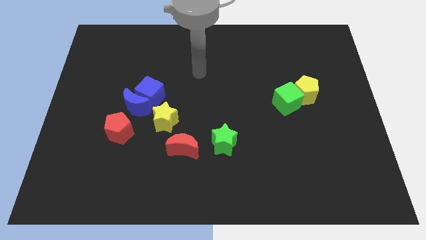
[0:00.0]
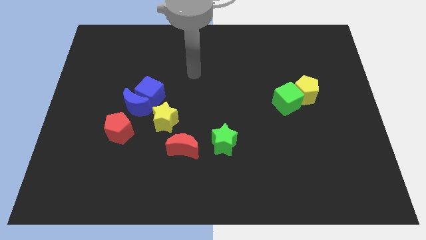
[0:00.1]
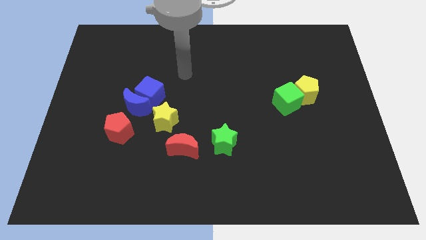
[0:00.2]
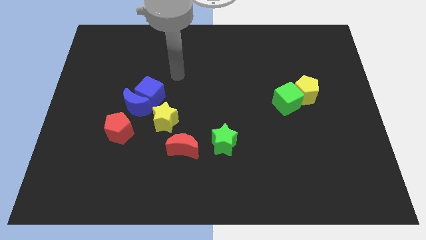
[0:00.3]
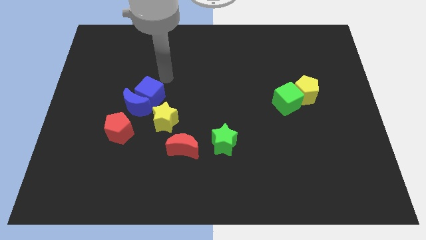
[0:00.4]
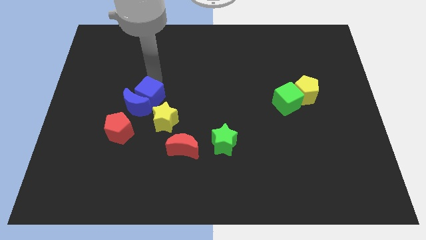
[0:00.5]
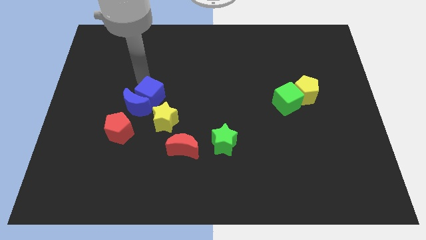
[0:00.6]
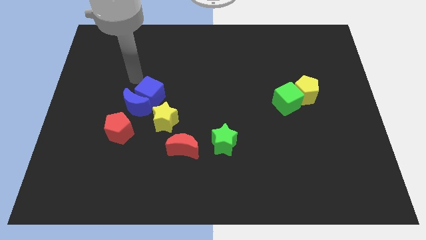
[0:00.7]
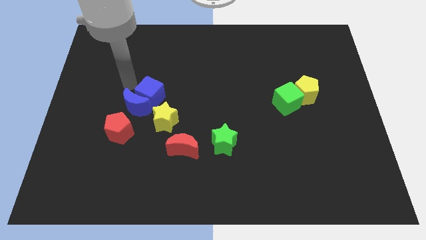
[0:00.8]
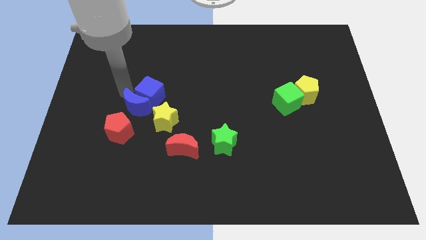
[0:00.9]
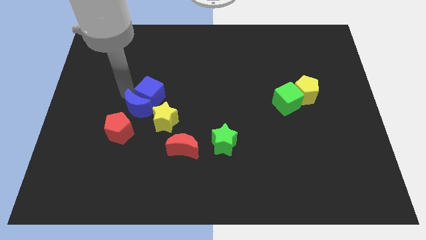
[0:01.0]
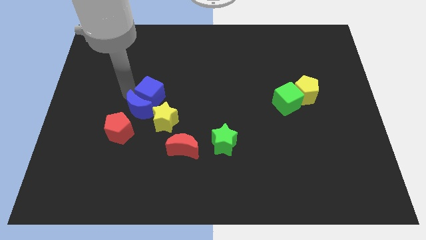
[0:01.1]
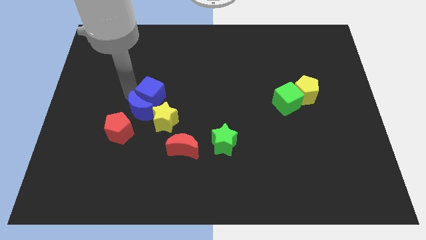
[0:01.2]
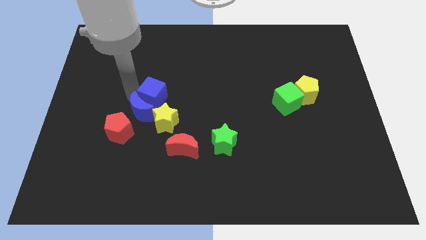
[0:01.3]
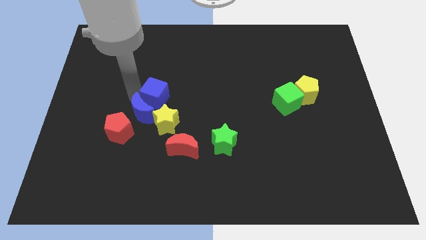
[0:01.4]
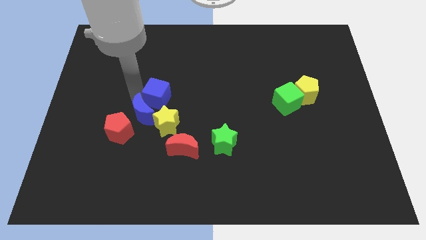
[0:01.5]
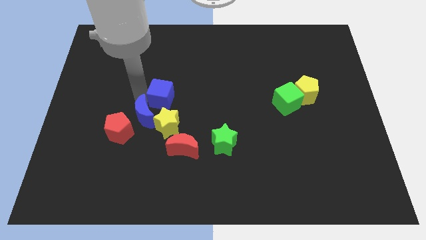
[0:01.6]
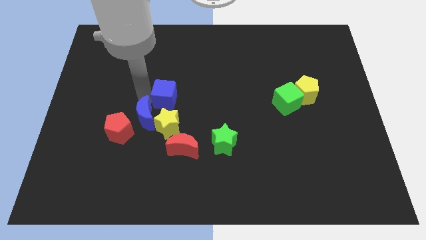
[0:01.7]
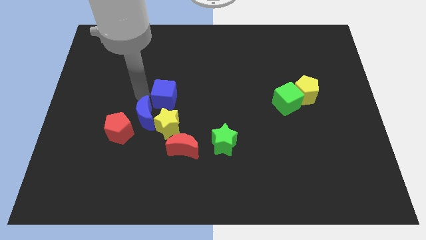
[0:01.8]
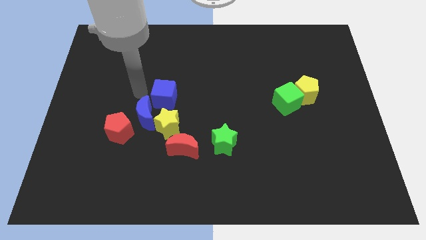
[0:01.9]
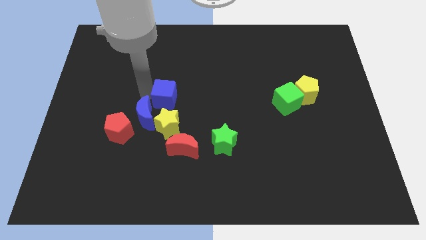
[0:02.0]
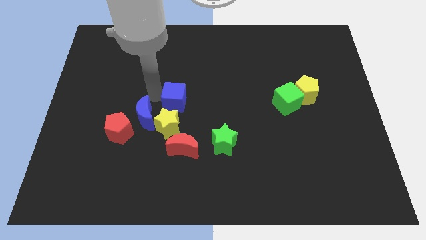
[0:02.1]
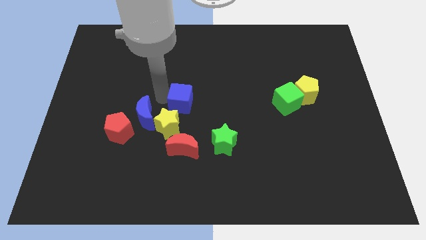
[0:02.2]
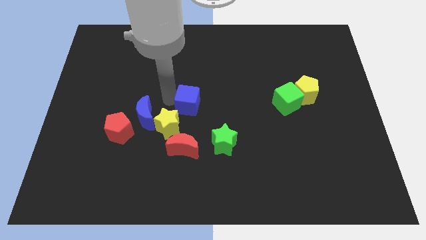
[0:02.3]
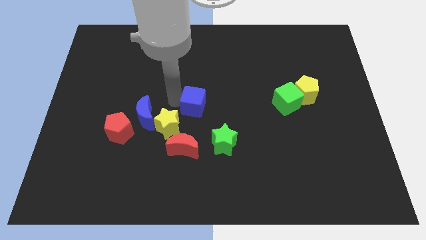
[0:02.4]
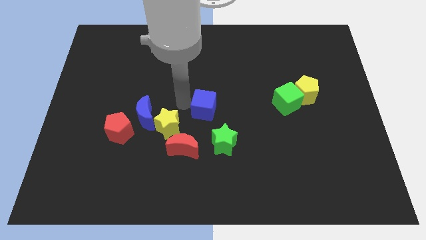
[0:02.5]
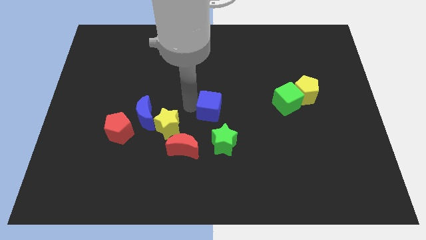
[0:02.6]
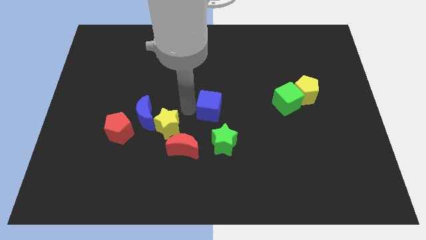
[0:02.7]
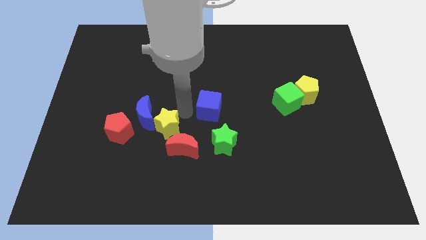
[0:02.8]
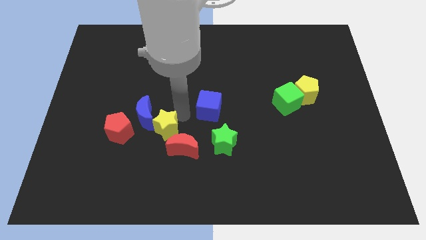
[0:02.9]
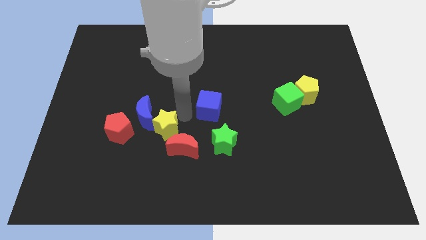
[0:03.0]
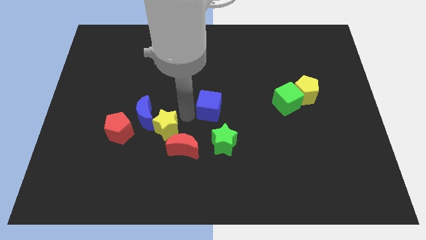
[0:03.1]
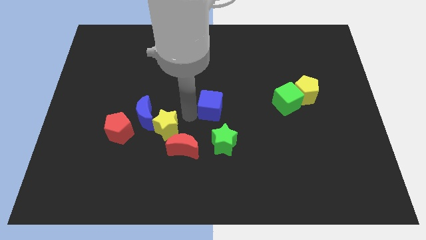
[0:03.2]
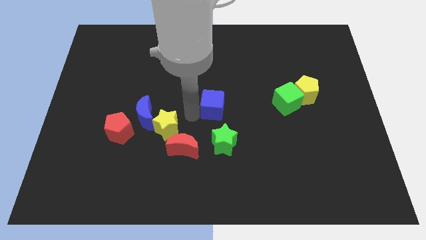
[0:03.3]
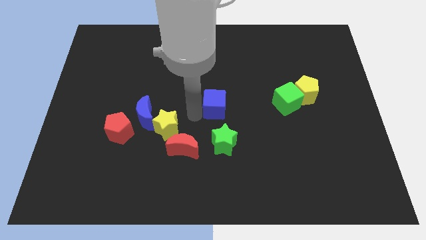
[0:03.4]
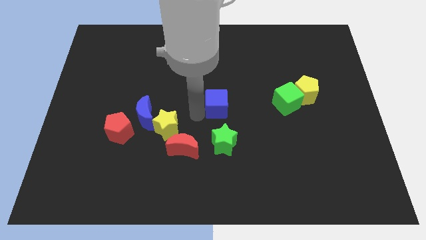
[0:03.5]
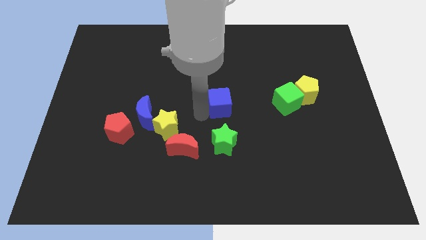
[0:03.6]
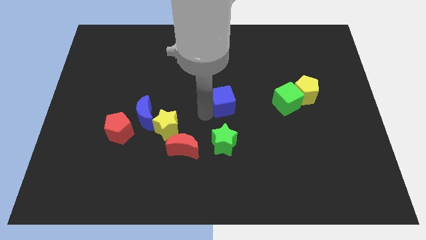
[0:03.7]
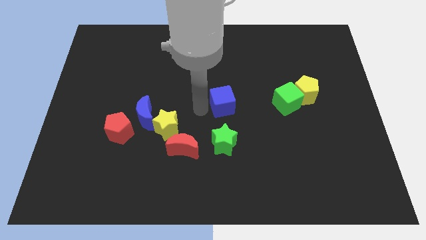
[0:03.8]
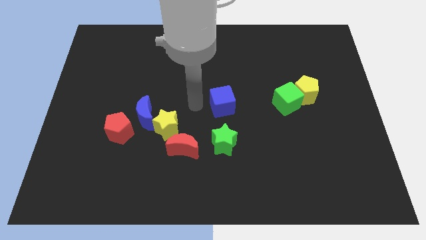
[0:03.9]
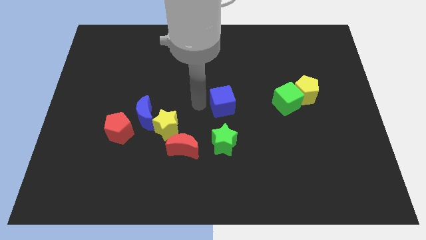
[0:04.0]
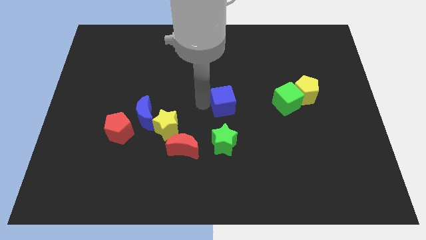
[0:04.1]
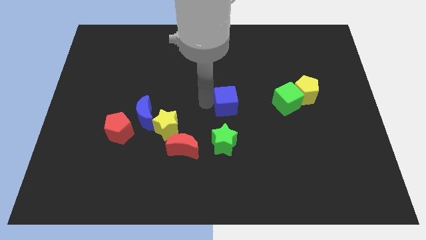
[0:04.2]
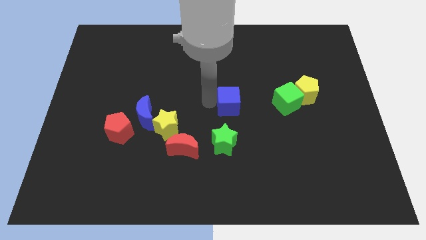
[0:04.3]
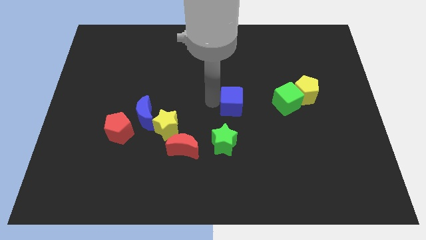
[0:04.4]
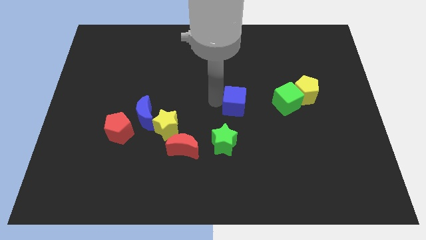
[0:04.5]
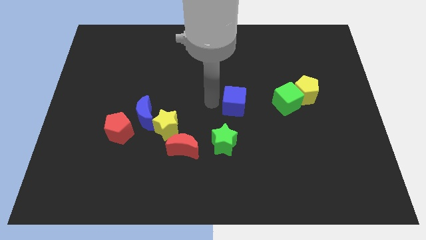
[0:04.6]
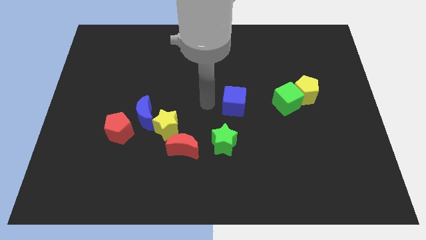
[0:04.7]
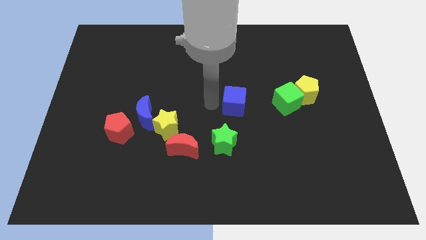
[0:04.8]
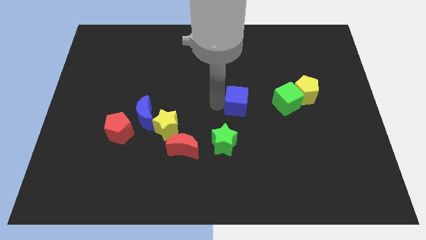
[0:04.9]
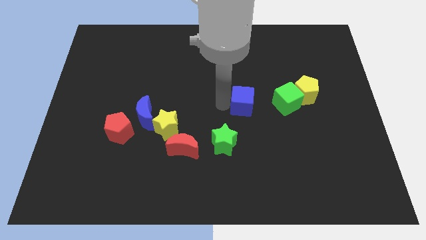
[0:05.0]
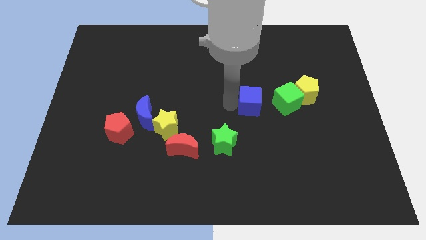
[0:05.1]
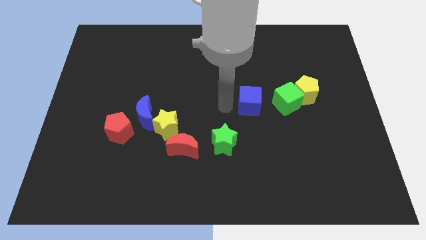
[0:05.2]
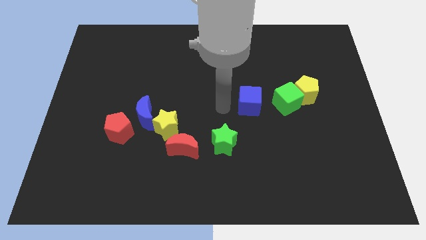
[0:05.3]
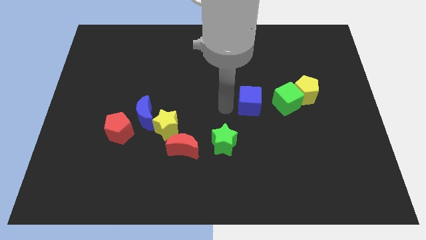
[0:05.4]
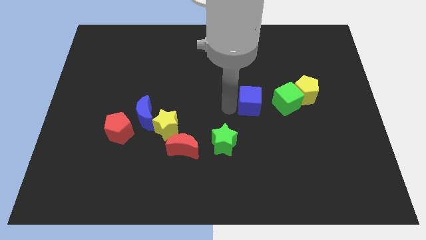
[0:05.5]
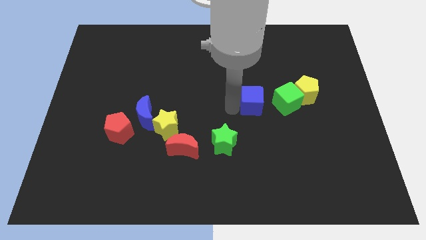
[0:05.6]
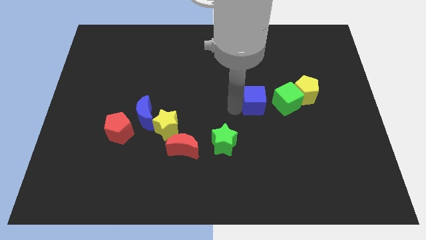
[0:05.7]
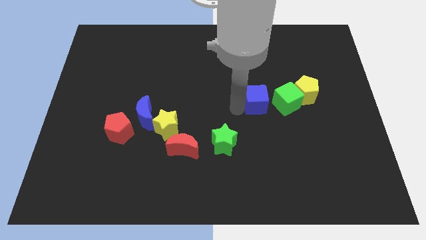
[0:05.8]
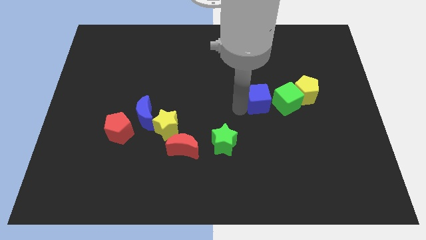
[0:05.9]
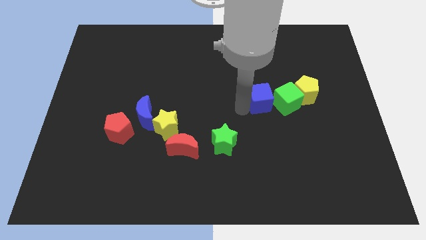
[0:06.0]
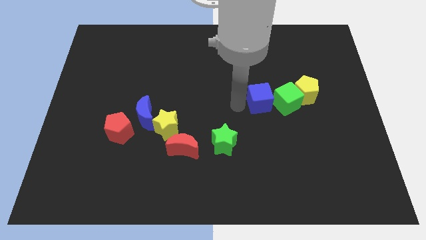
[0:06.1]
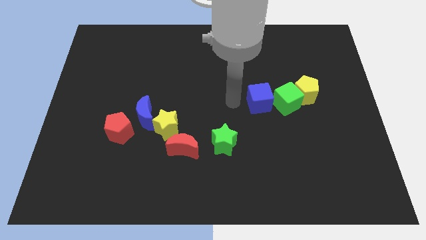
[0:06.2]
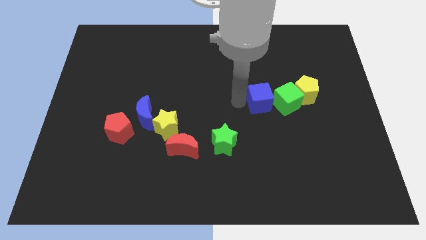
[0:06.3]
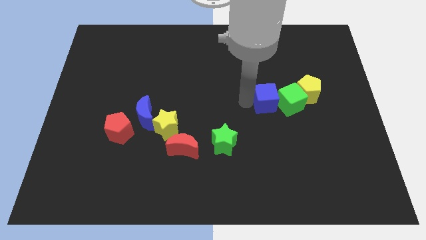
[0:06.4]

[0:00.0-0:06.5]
push the blue cube towards the green cube

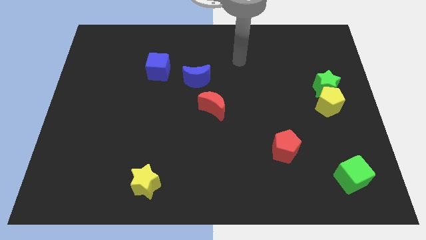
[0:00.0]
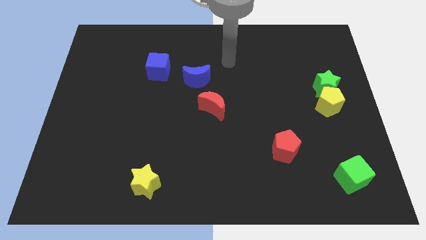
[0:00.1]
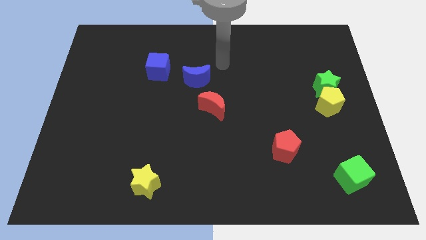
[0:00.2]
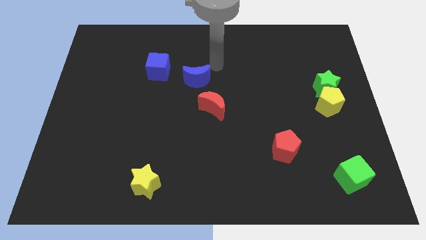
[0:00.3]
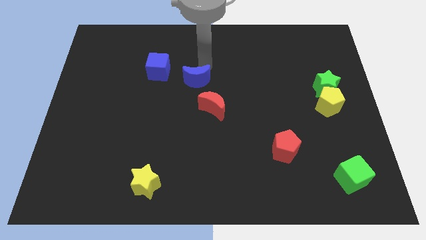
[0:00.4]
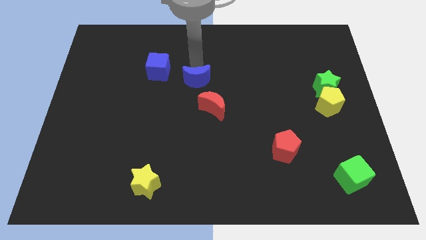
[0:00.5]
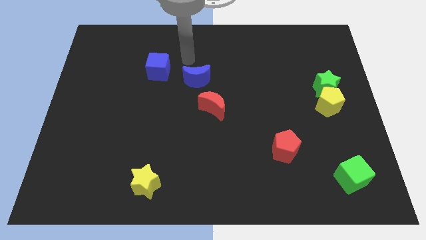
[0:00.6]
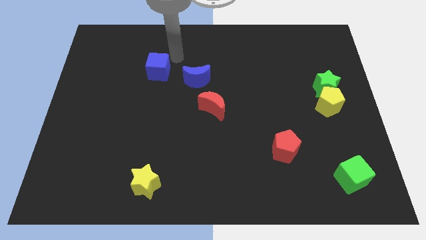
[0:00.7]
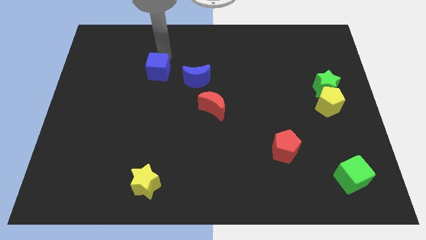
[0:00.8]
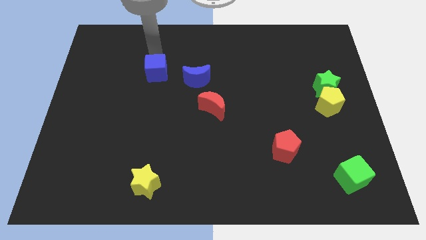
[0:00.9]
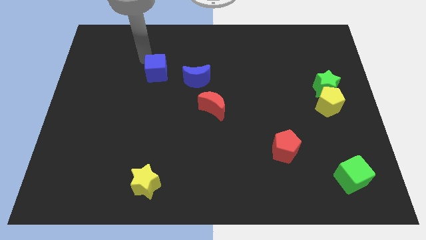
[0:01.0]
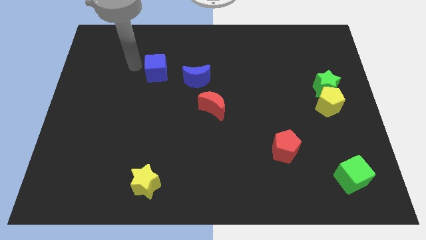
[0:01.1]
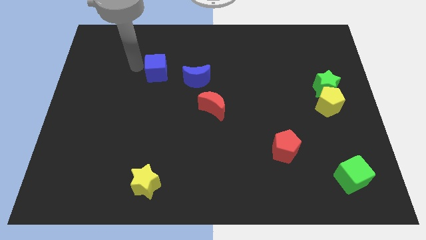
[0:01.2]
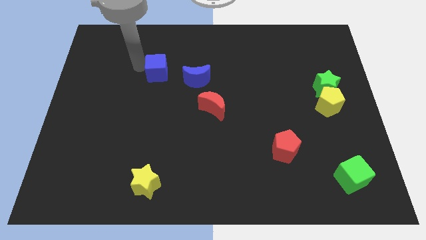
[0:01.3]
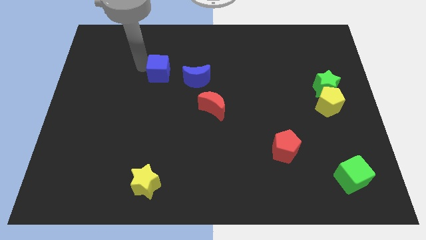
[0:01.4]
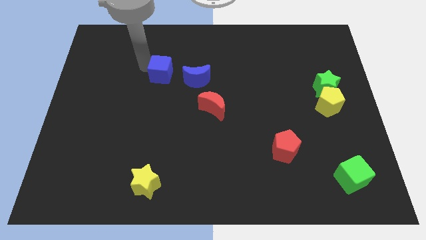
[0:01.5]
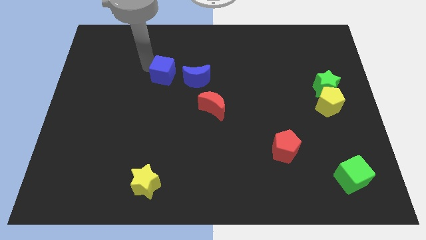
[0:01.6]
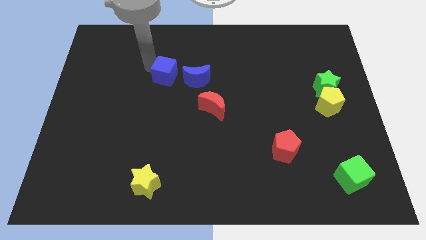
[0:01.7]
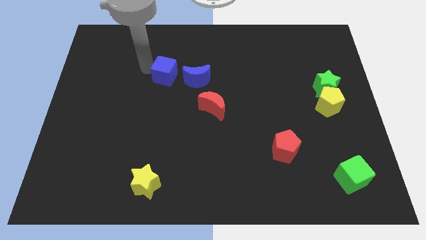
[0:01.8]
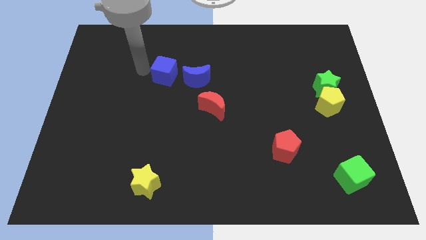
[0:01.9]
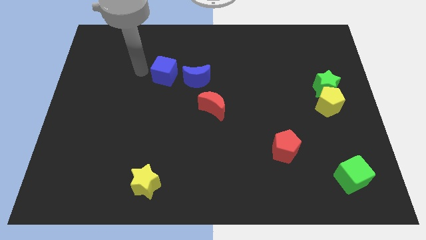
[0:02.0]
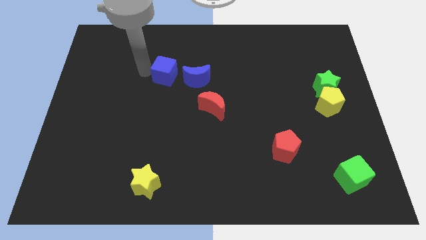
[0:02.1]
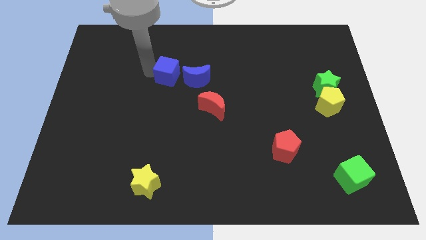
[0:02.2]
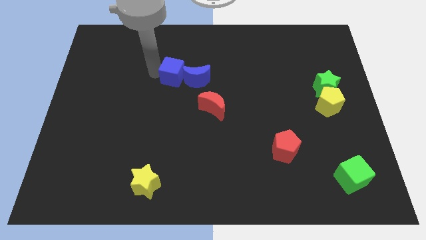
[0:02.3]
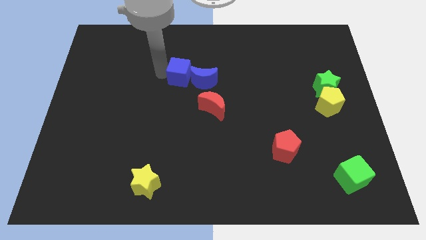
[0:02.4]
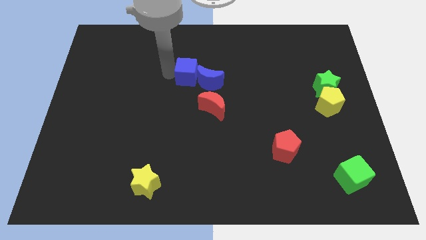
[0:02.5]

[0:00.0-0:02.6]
move the blue cube towards the blue moon
